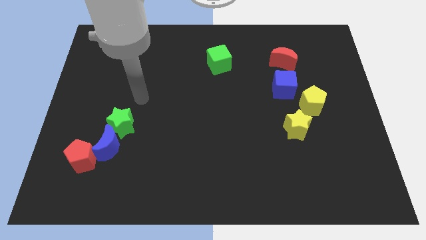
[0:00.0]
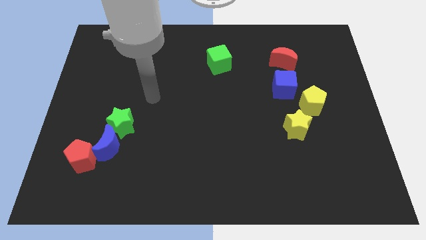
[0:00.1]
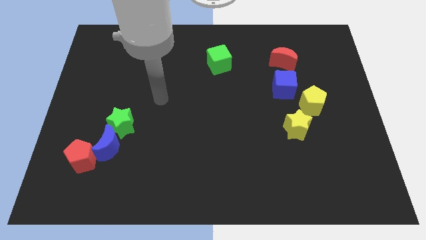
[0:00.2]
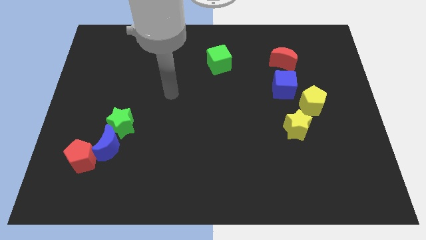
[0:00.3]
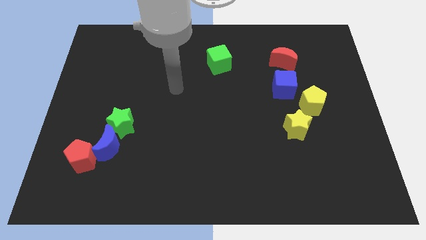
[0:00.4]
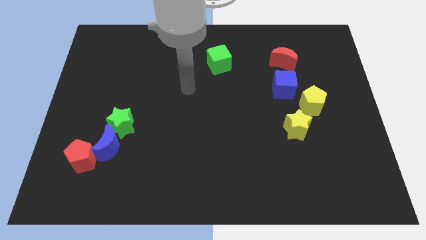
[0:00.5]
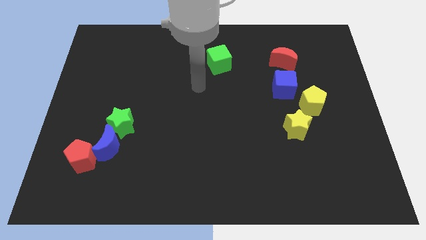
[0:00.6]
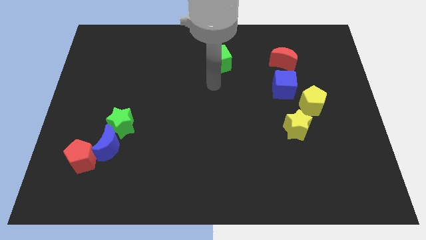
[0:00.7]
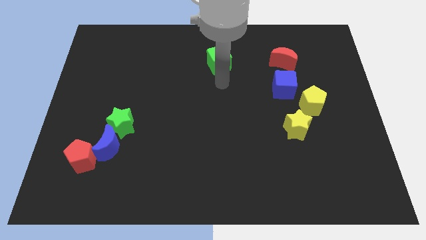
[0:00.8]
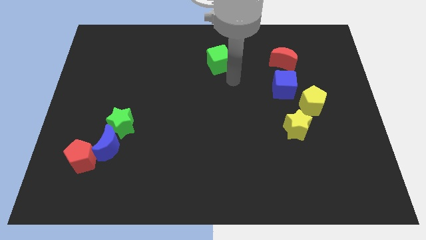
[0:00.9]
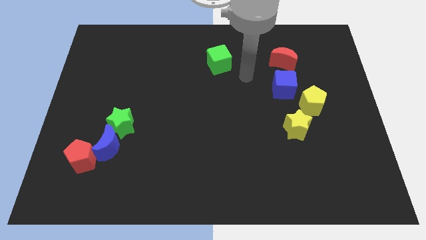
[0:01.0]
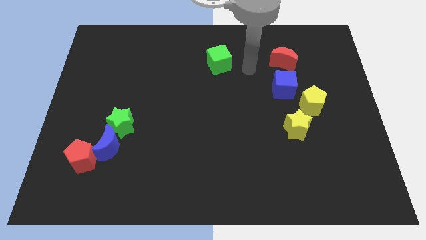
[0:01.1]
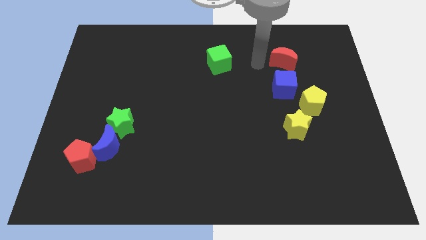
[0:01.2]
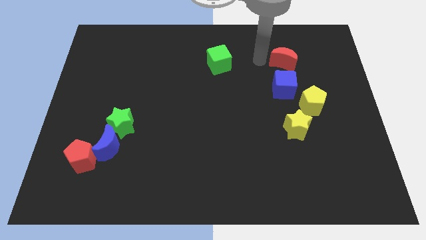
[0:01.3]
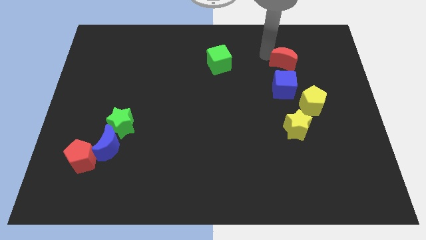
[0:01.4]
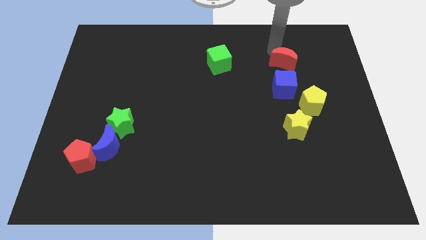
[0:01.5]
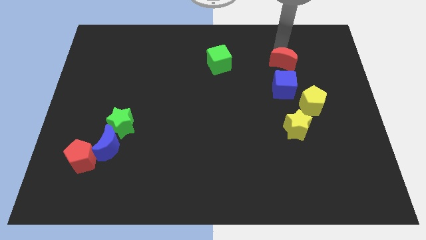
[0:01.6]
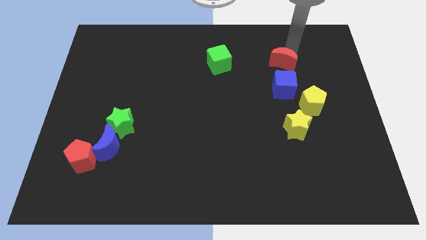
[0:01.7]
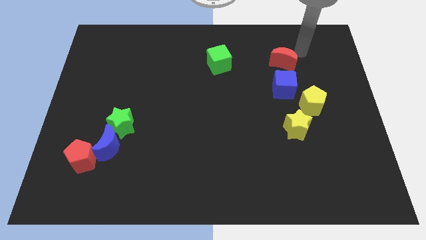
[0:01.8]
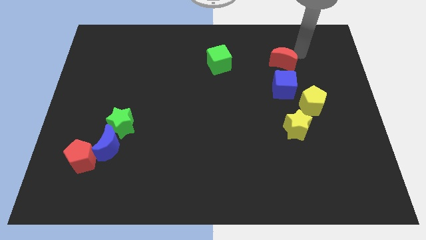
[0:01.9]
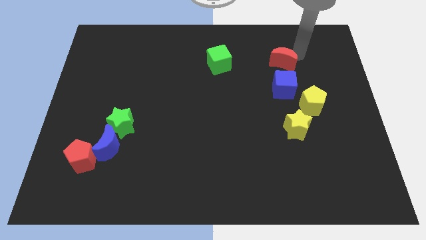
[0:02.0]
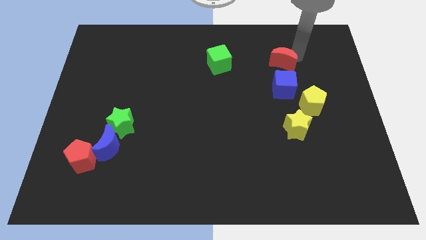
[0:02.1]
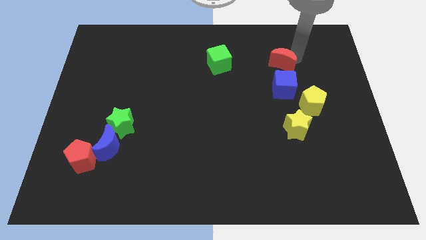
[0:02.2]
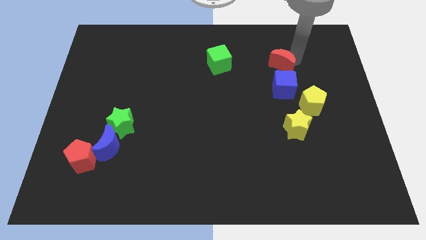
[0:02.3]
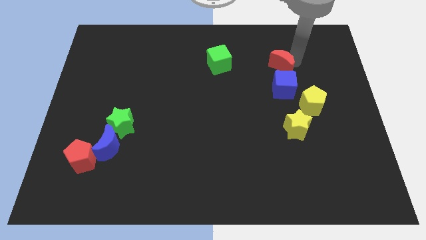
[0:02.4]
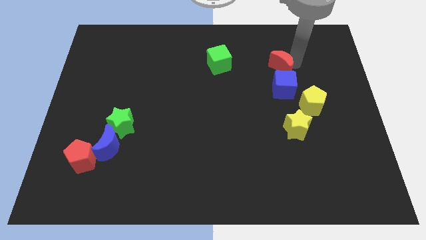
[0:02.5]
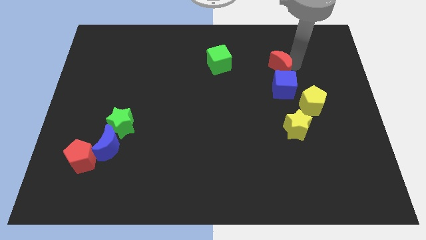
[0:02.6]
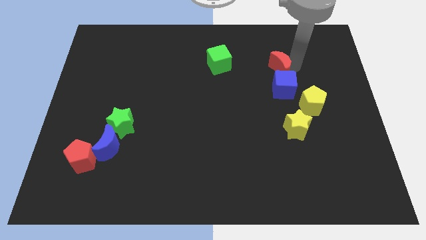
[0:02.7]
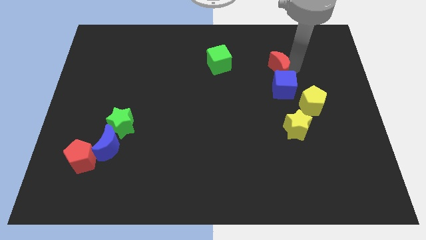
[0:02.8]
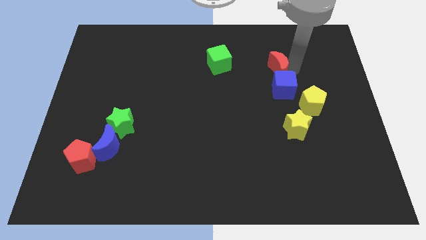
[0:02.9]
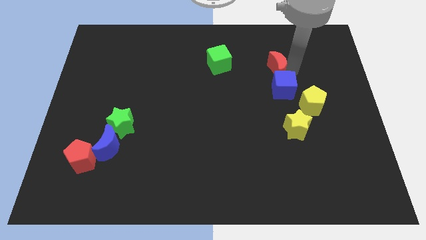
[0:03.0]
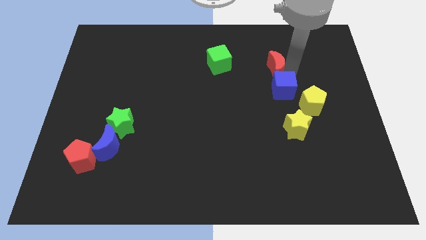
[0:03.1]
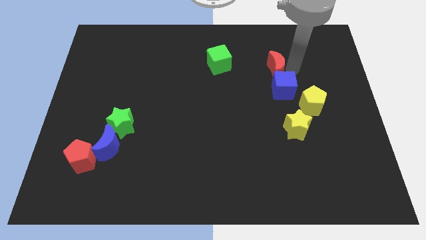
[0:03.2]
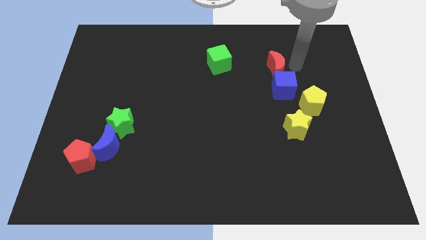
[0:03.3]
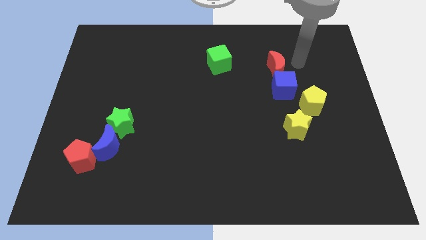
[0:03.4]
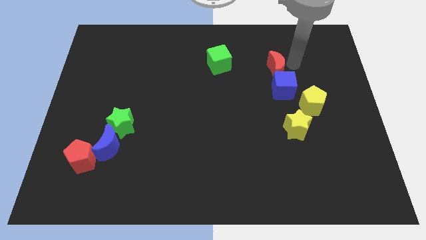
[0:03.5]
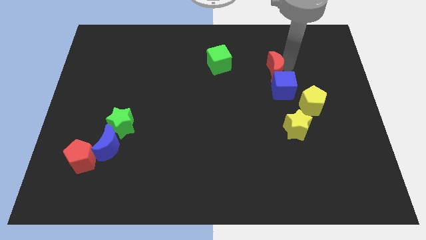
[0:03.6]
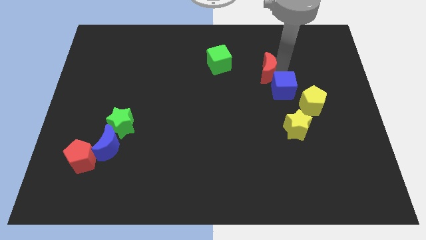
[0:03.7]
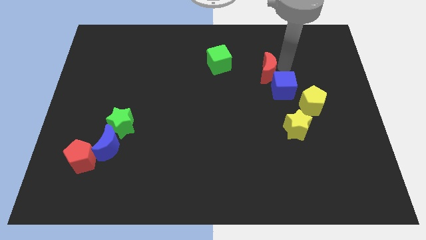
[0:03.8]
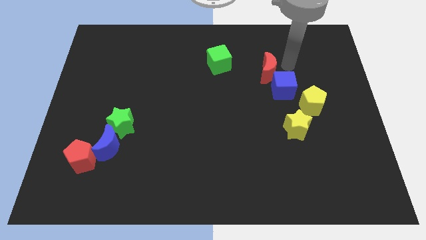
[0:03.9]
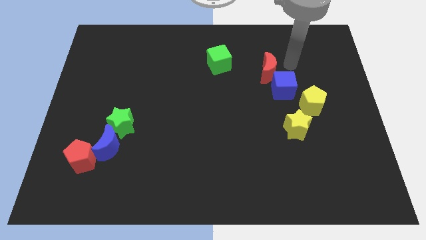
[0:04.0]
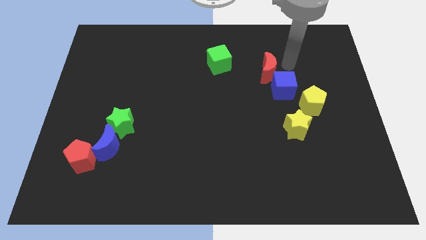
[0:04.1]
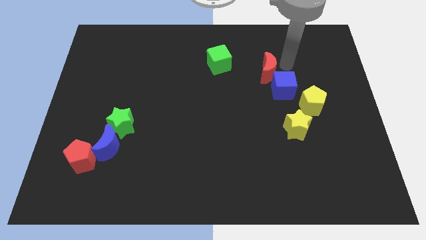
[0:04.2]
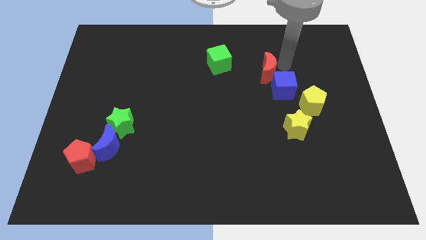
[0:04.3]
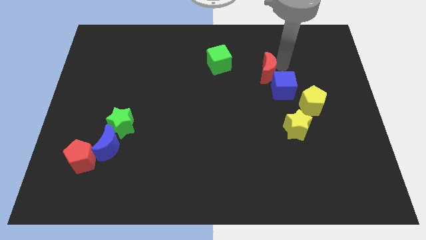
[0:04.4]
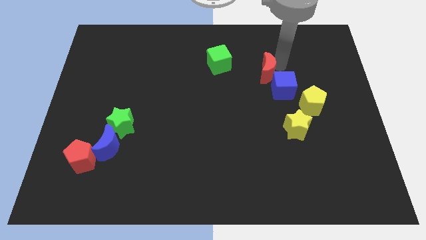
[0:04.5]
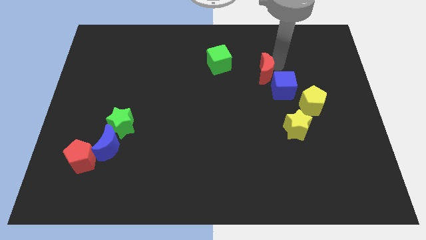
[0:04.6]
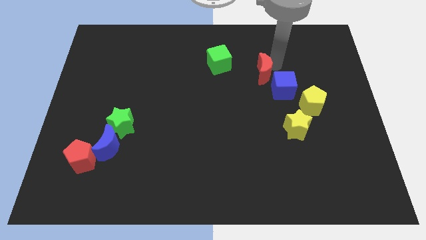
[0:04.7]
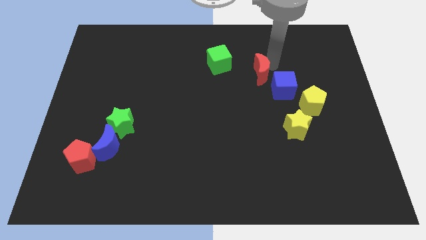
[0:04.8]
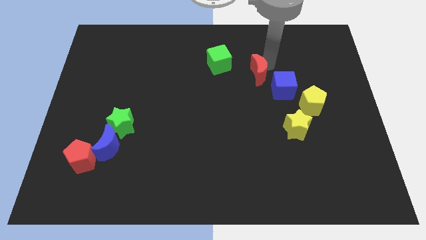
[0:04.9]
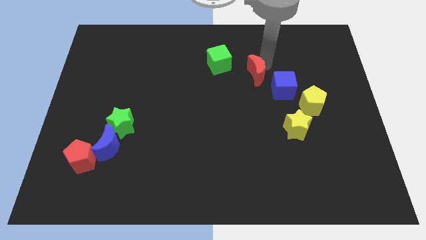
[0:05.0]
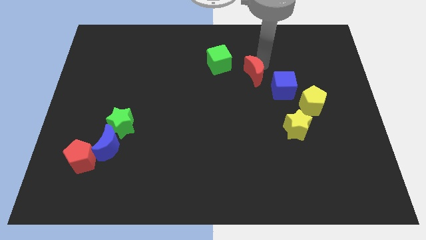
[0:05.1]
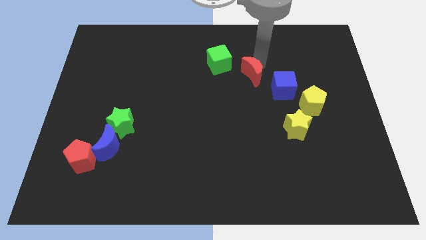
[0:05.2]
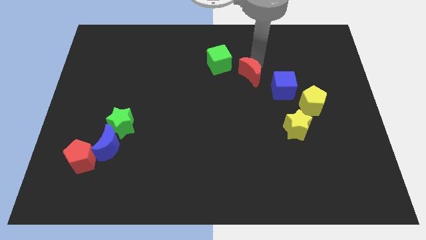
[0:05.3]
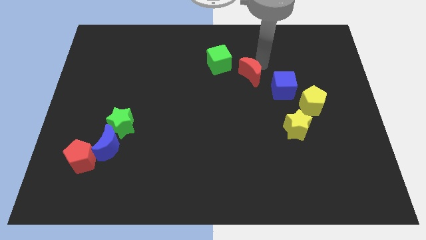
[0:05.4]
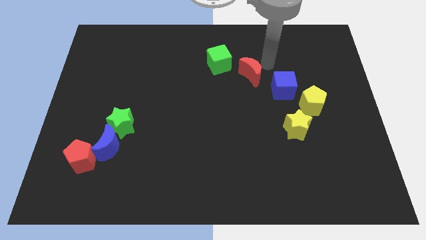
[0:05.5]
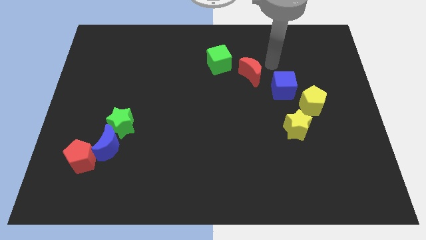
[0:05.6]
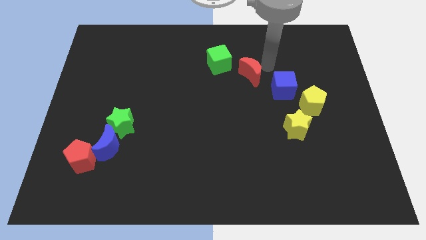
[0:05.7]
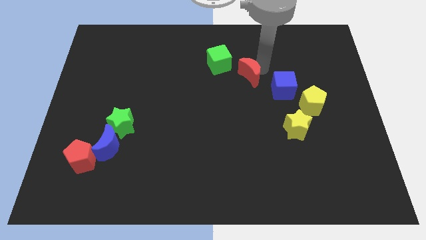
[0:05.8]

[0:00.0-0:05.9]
move the red moon to the middle

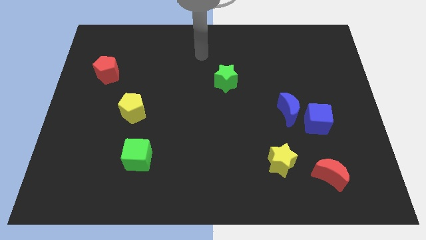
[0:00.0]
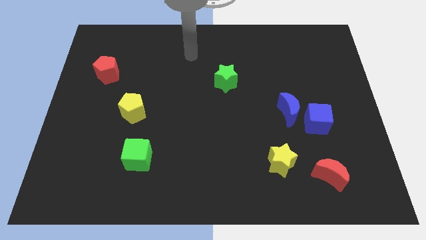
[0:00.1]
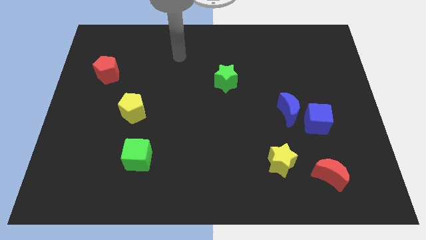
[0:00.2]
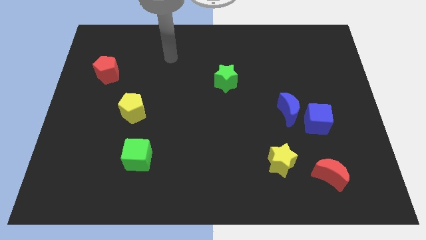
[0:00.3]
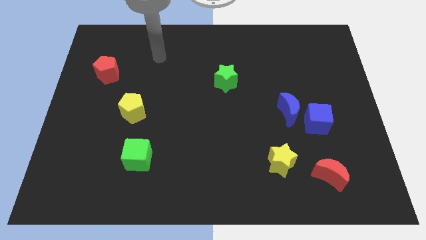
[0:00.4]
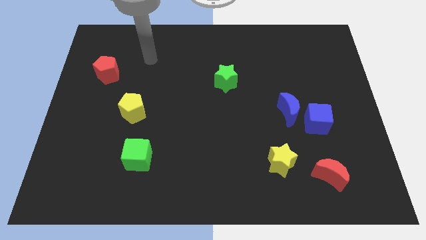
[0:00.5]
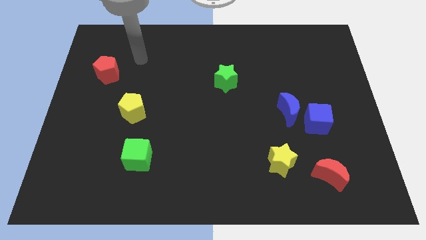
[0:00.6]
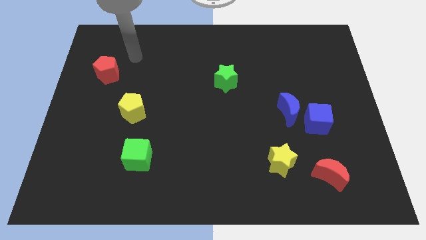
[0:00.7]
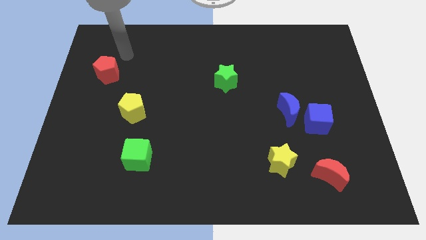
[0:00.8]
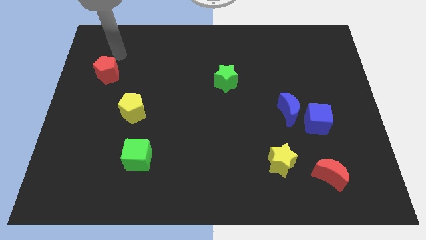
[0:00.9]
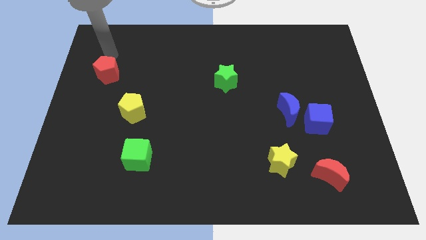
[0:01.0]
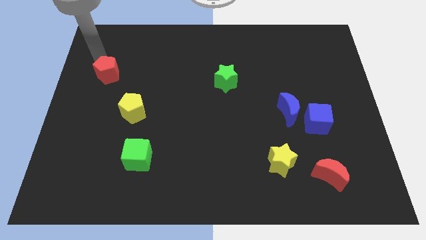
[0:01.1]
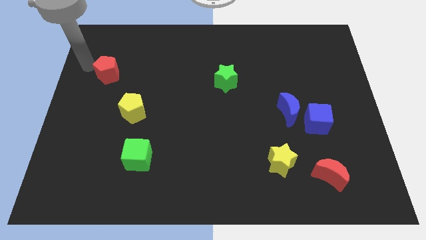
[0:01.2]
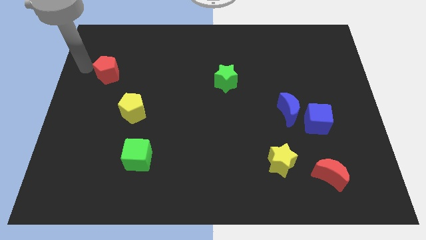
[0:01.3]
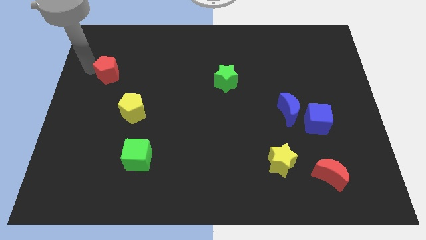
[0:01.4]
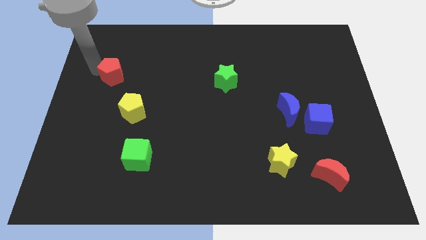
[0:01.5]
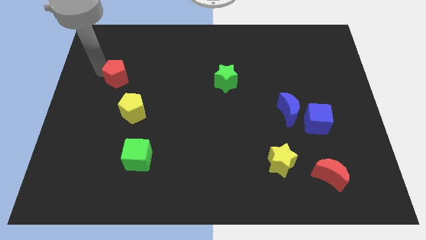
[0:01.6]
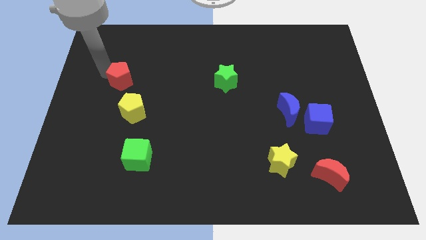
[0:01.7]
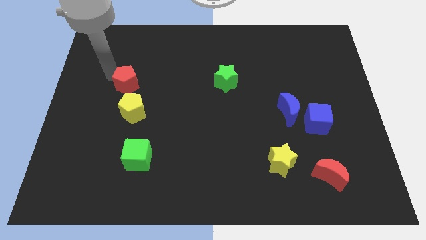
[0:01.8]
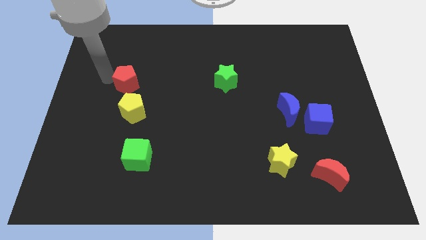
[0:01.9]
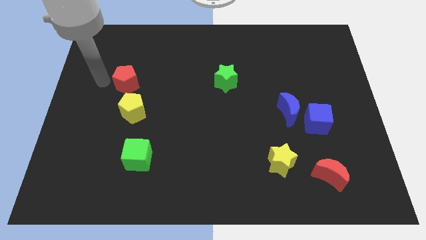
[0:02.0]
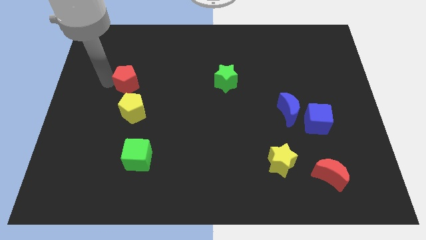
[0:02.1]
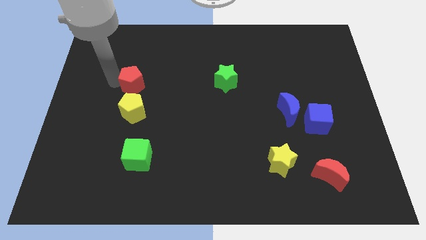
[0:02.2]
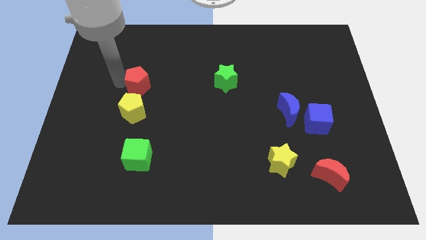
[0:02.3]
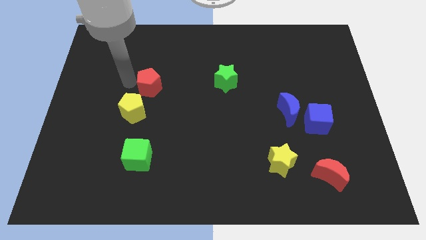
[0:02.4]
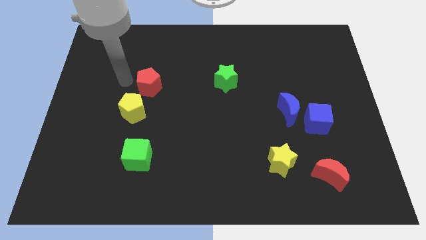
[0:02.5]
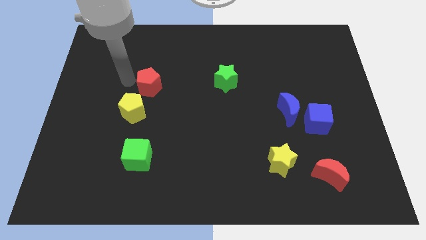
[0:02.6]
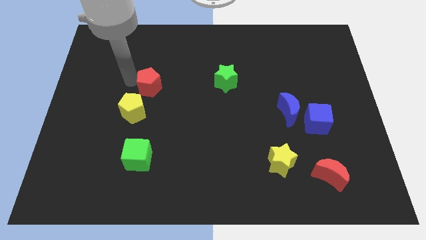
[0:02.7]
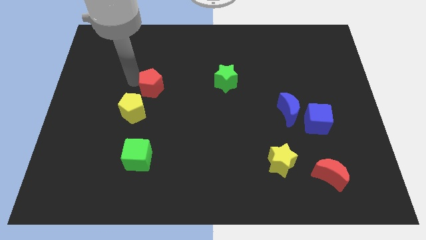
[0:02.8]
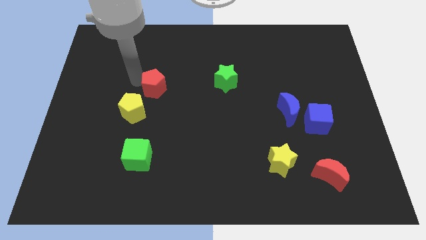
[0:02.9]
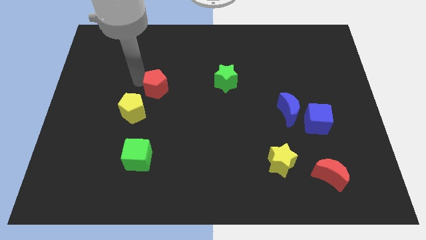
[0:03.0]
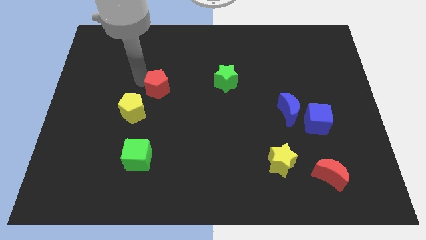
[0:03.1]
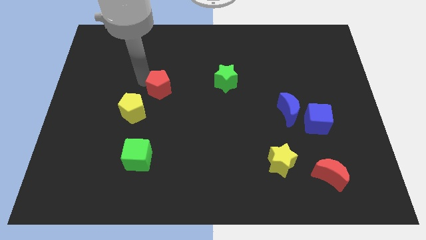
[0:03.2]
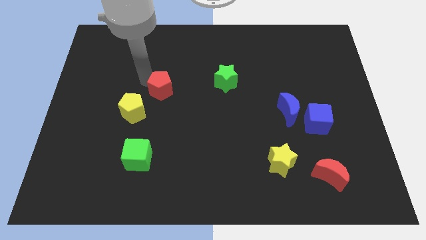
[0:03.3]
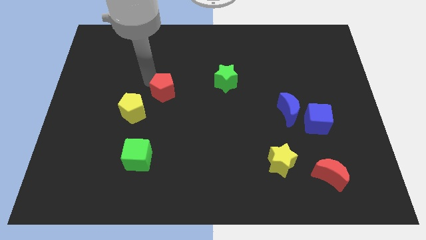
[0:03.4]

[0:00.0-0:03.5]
move the red pentagon to the middle of the board
